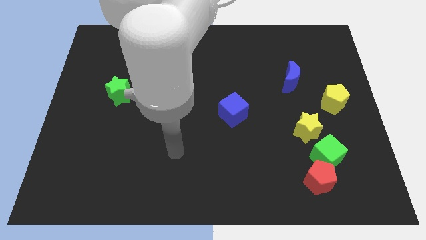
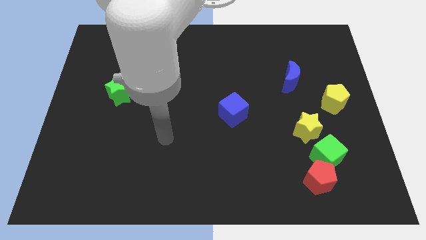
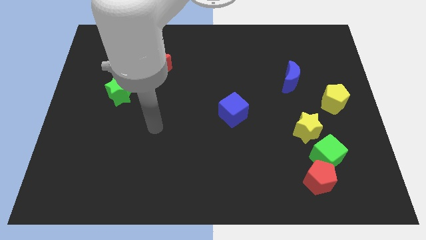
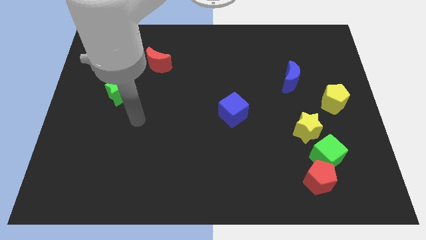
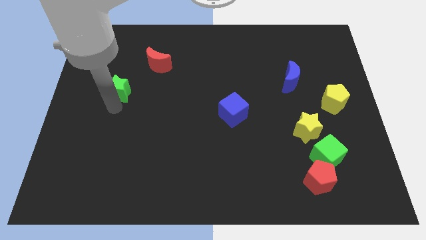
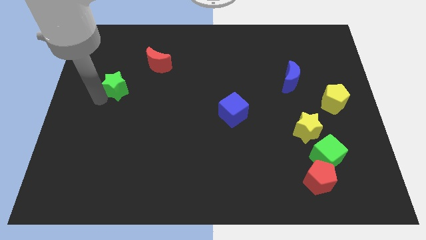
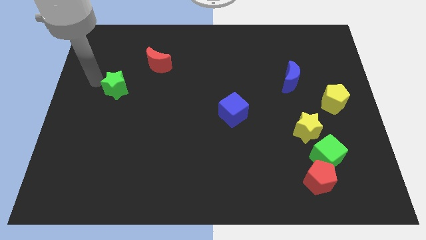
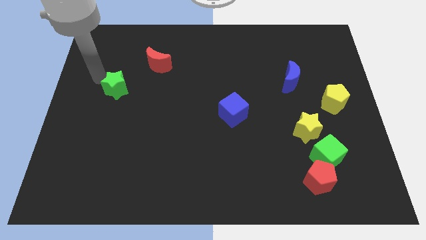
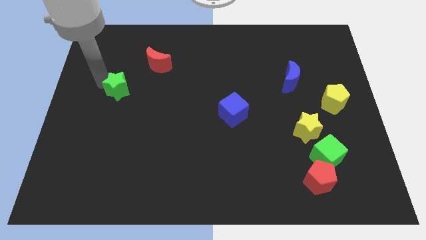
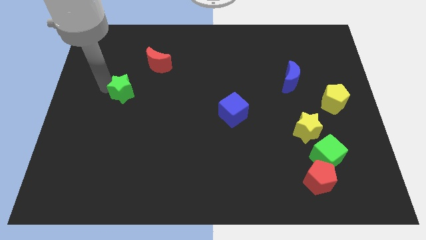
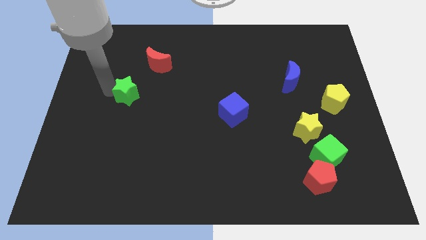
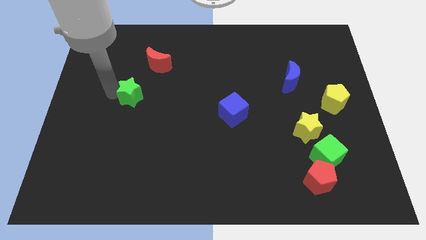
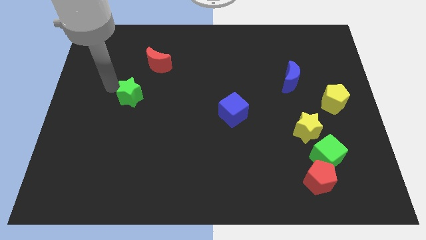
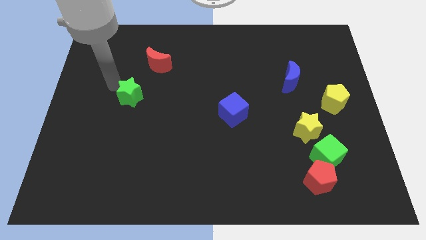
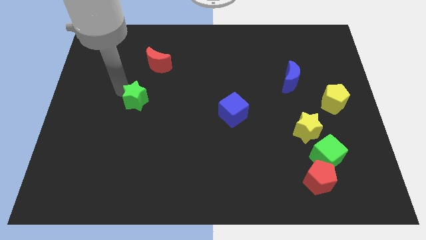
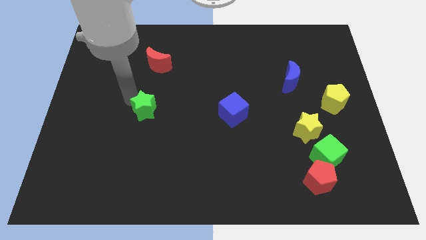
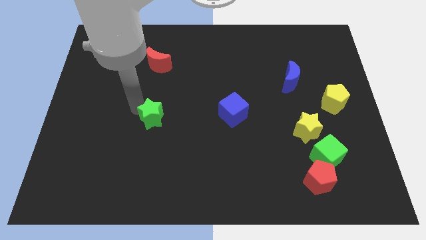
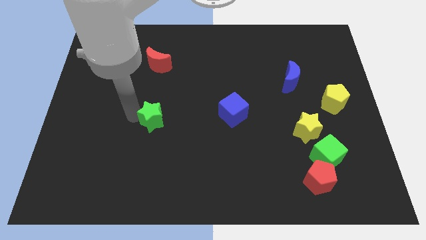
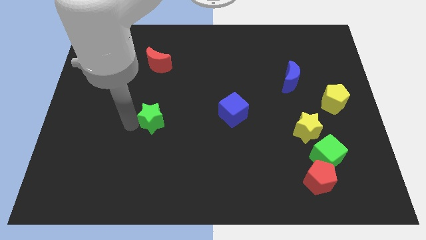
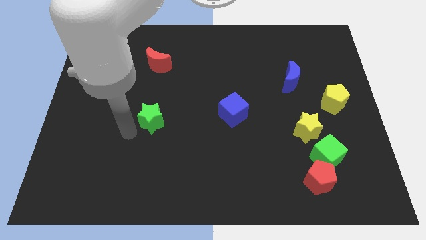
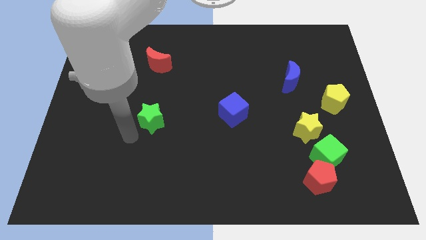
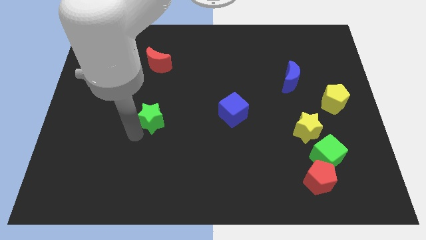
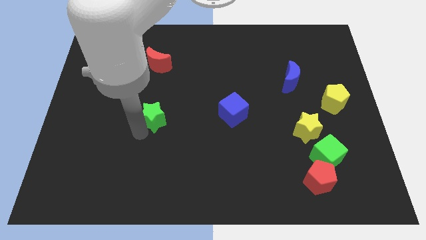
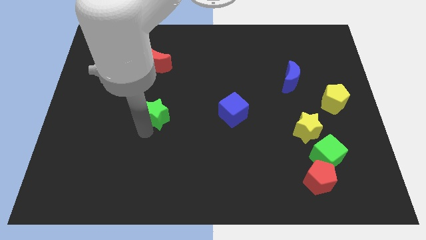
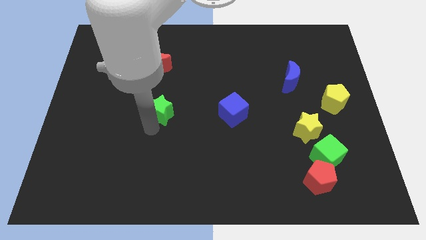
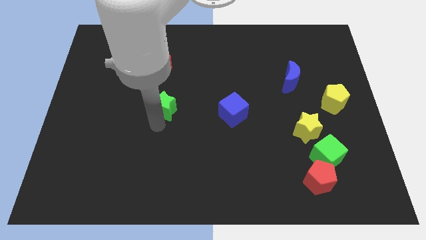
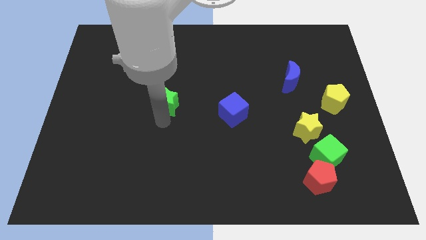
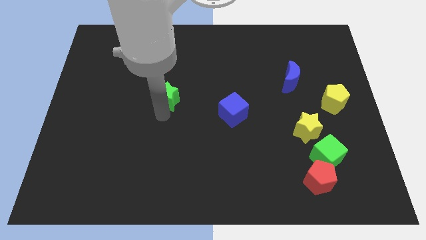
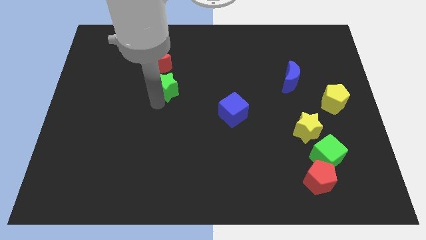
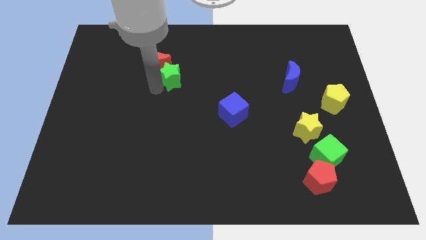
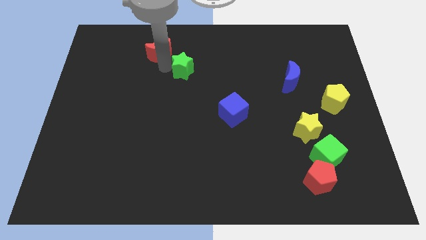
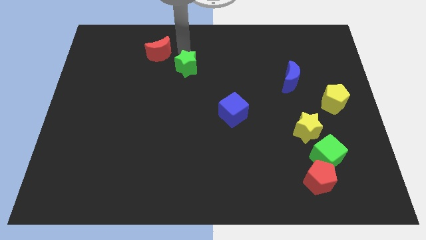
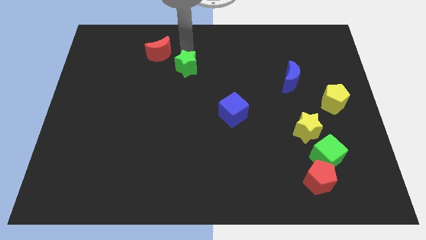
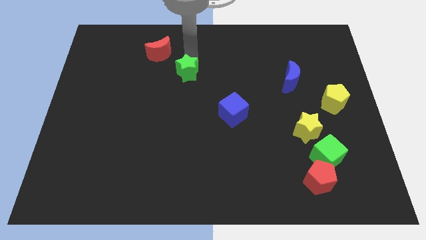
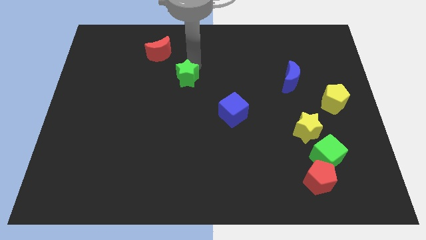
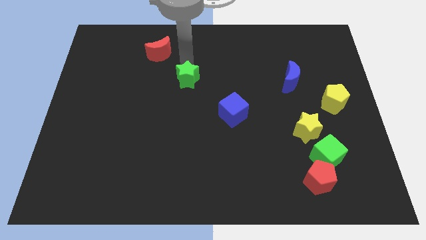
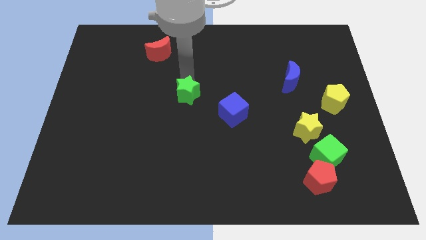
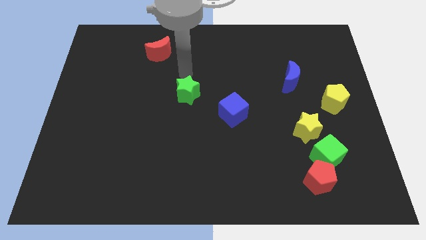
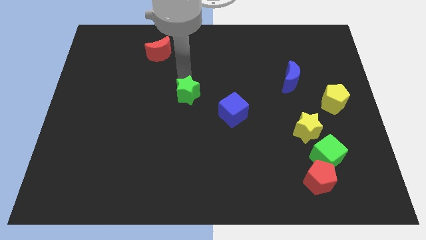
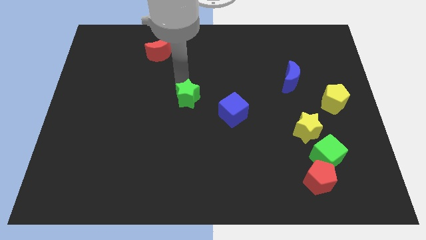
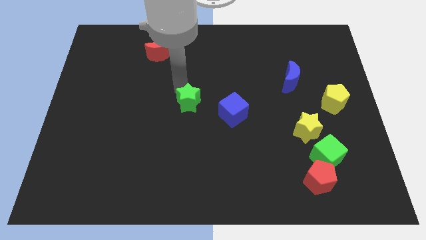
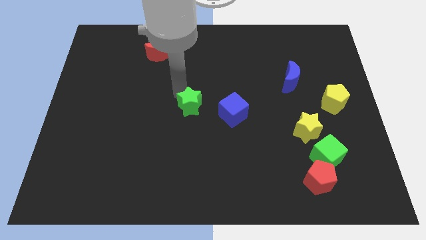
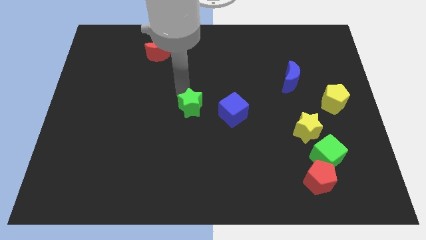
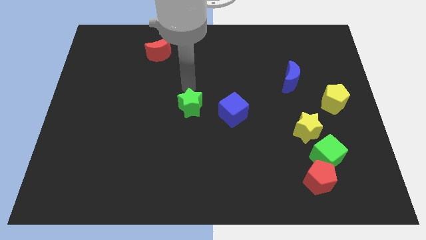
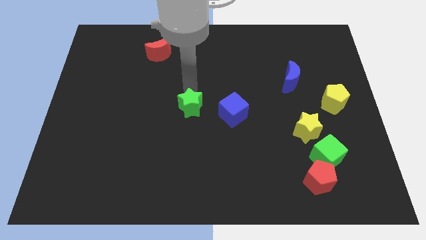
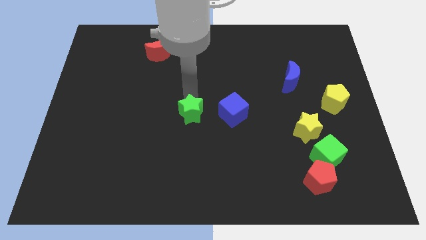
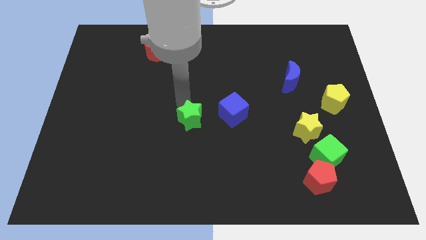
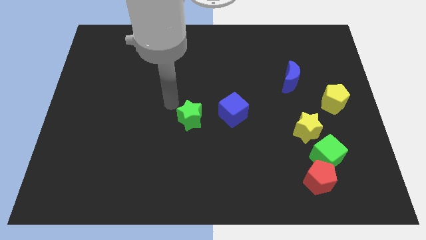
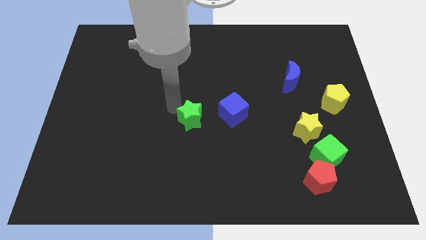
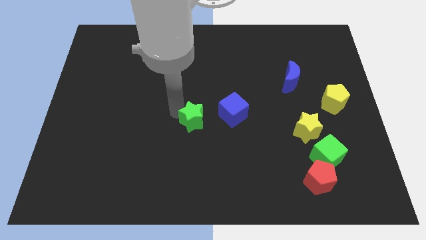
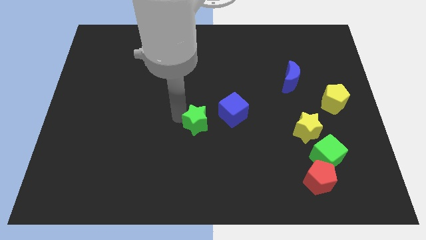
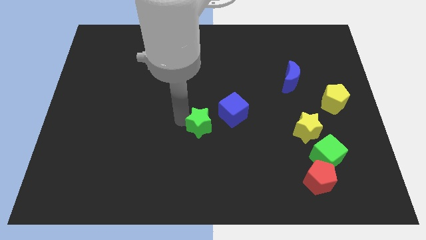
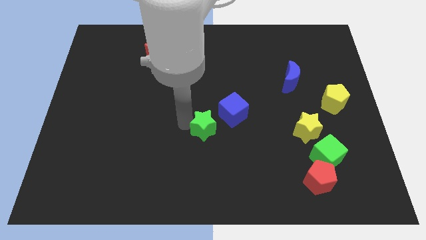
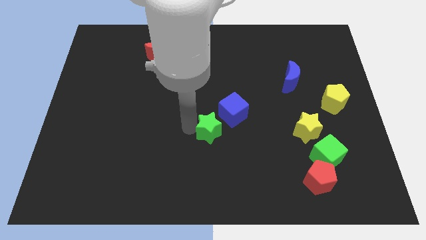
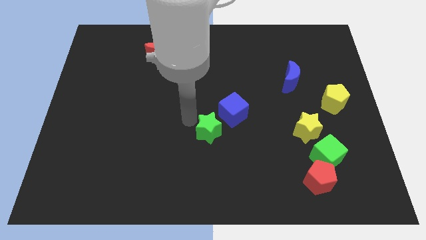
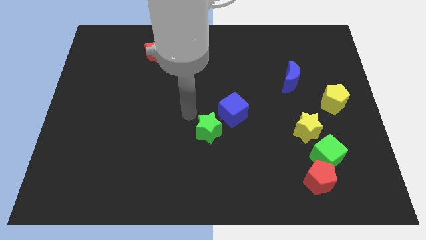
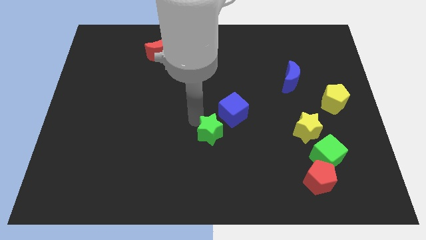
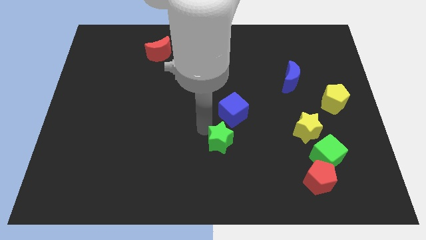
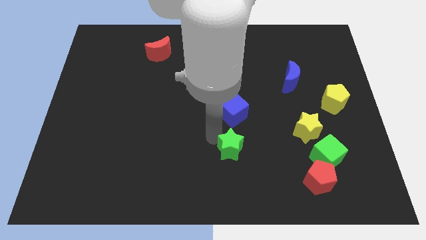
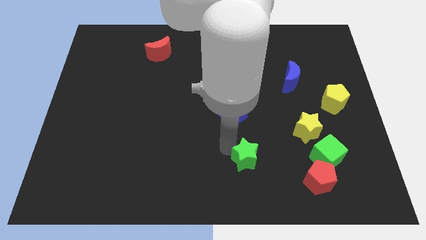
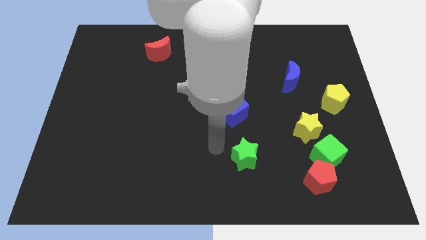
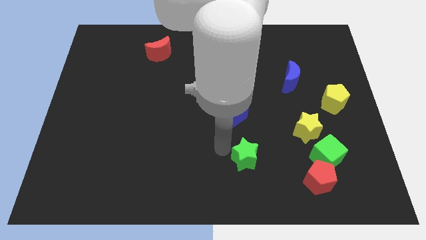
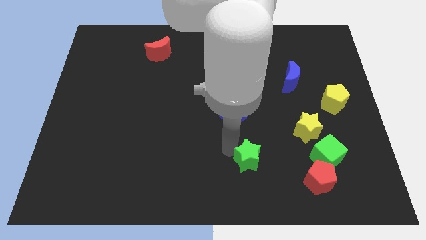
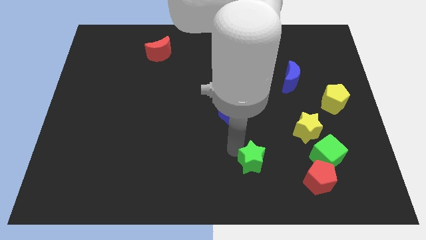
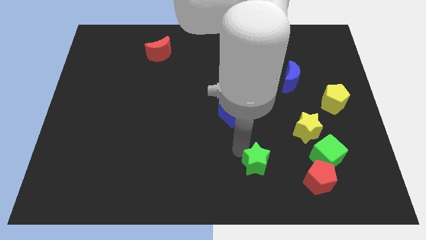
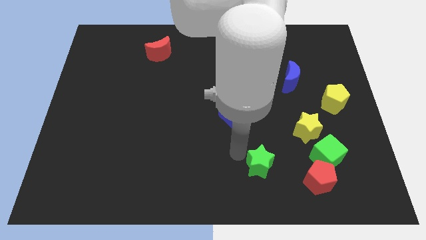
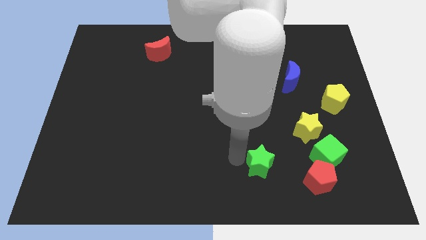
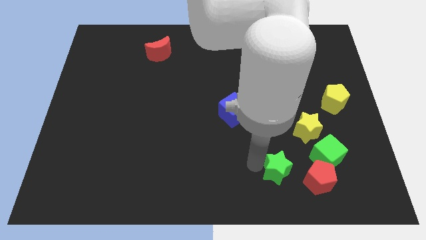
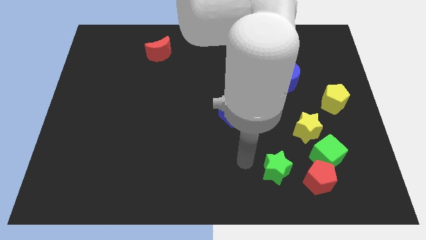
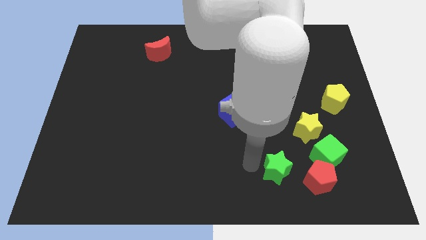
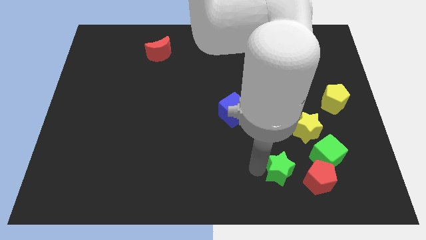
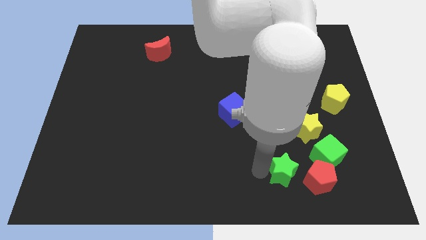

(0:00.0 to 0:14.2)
move the green star diagonally down and to the left of the green cube

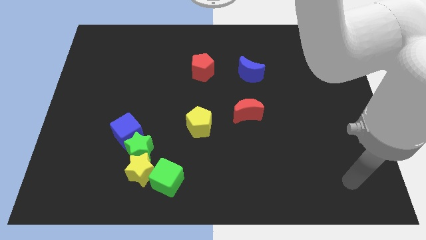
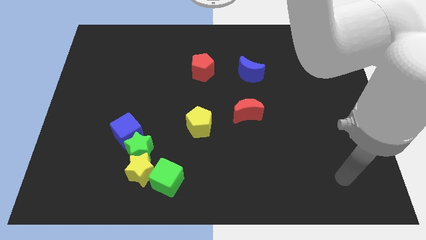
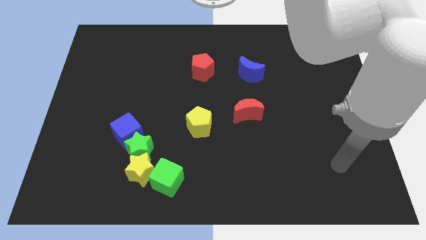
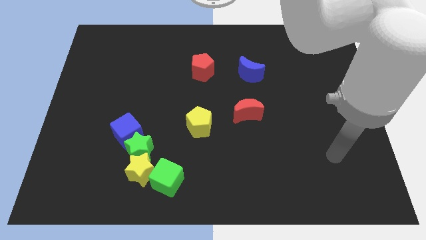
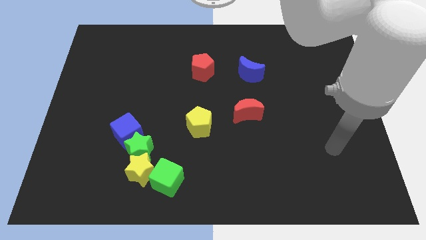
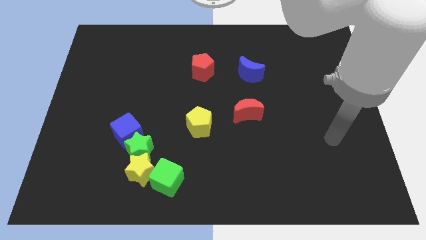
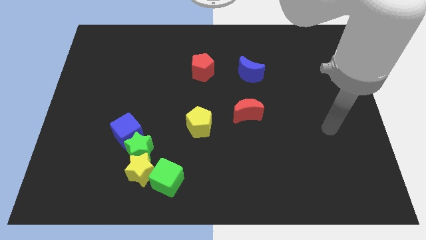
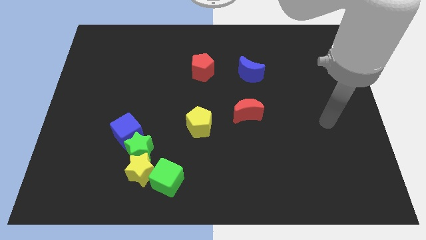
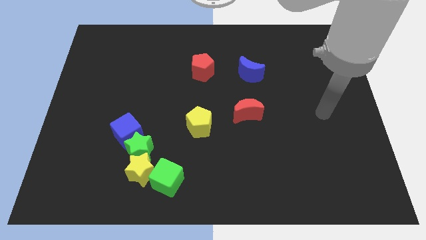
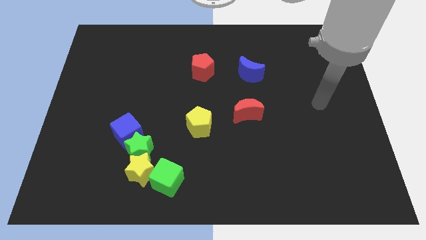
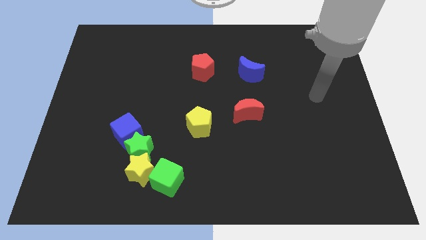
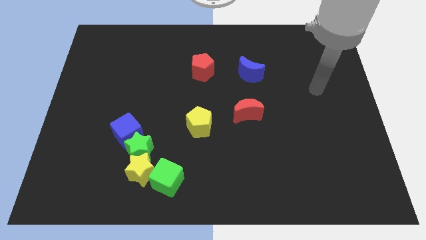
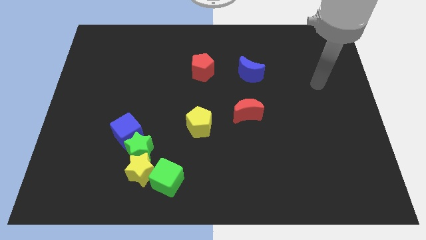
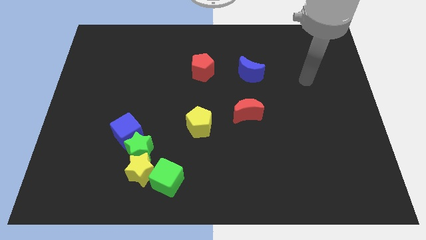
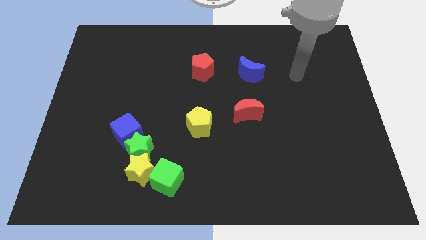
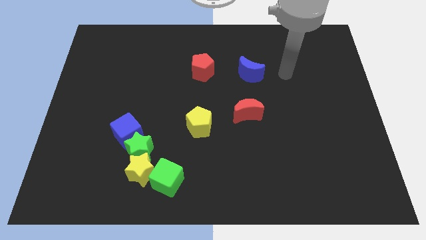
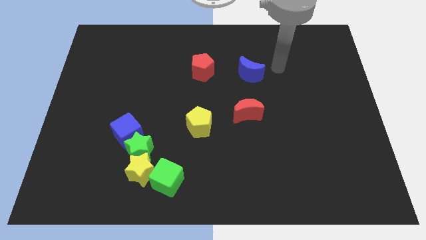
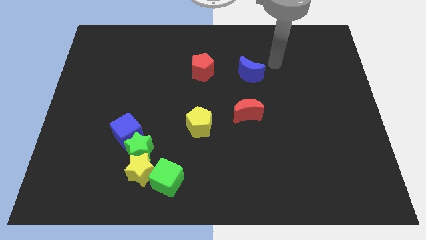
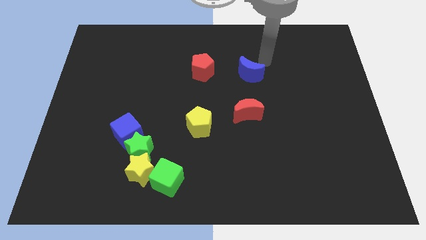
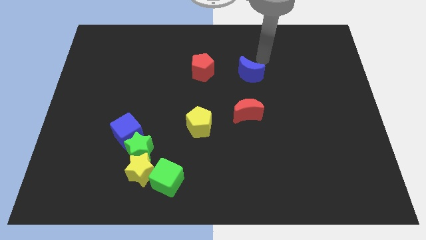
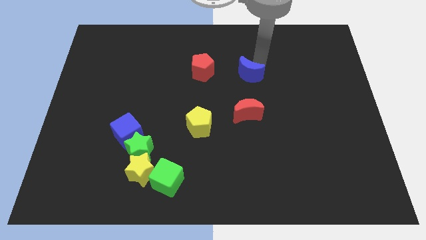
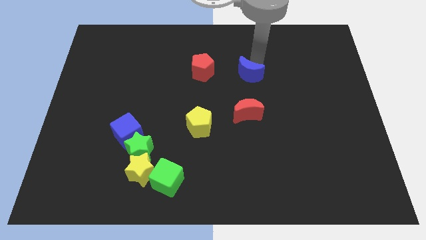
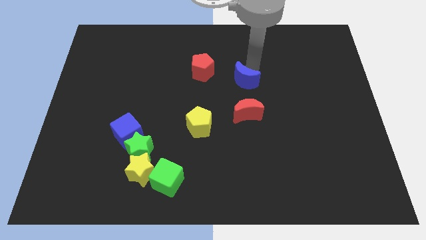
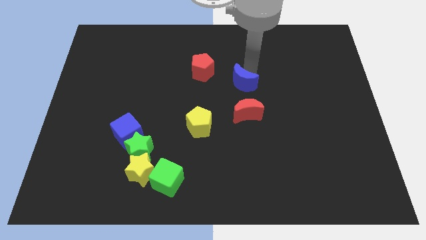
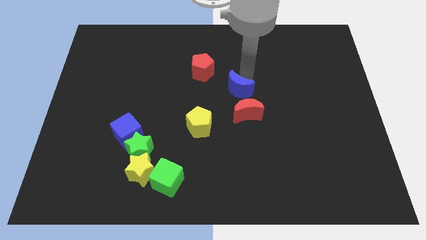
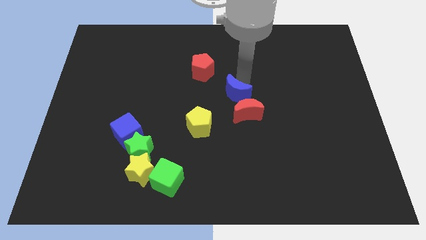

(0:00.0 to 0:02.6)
push the blue moon to the top right side of the yellow pentagon
